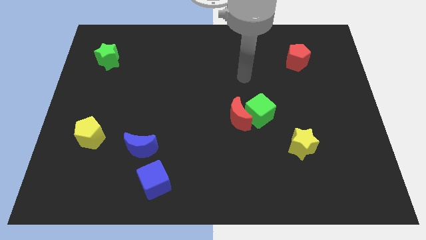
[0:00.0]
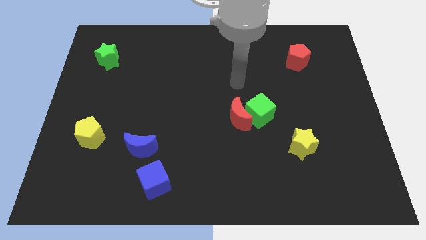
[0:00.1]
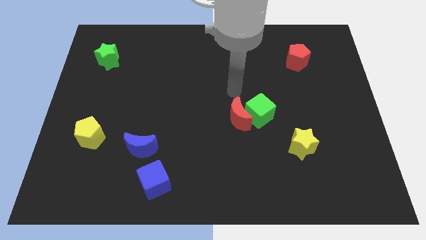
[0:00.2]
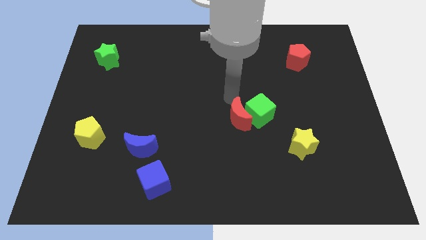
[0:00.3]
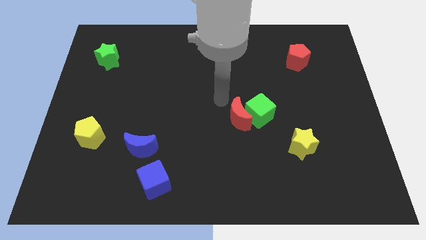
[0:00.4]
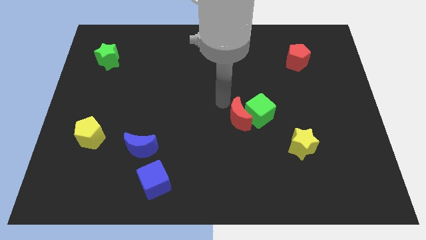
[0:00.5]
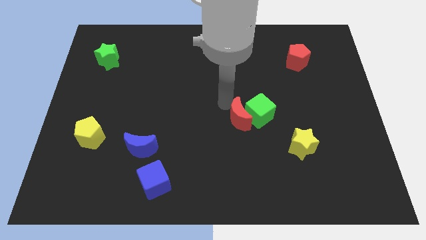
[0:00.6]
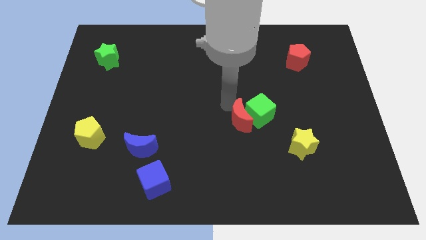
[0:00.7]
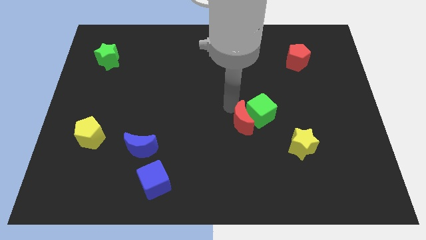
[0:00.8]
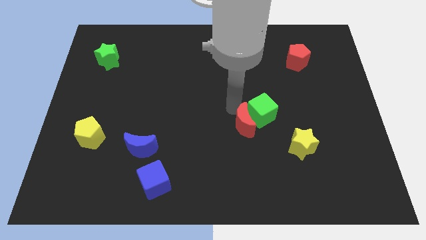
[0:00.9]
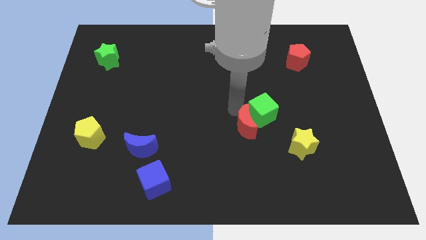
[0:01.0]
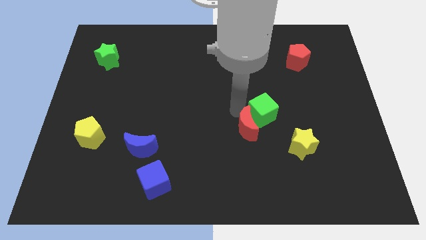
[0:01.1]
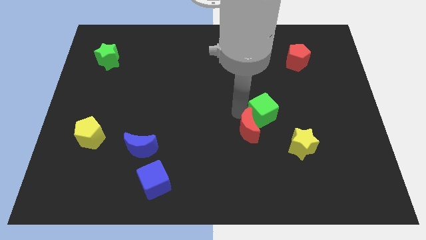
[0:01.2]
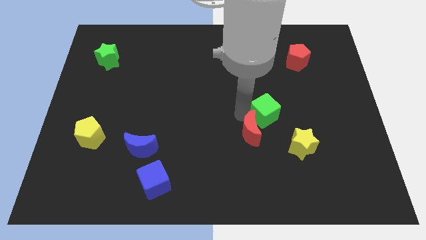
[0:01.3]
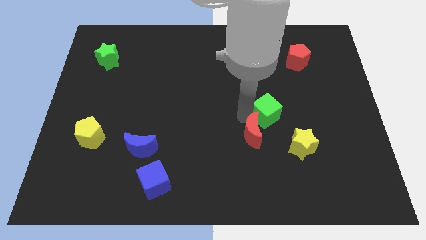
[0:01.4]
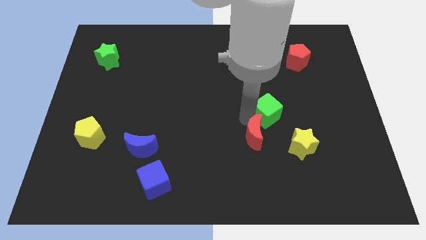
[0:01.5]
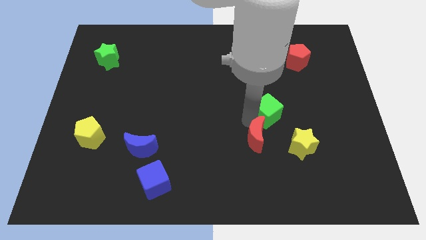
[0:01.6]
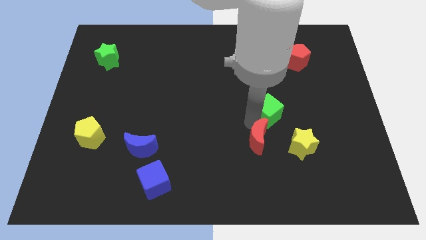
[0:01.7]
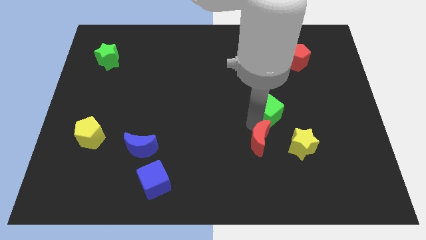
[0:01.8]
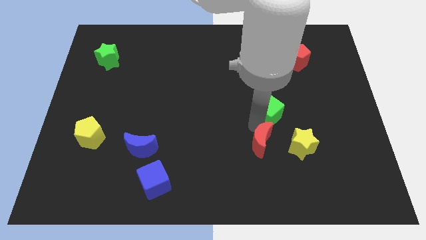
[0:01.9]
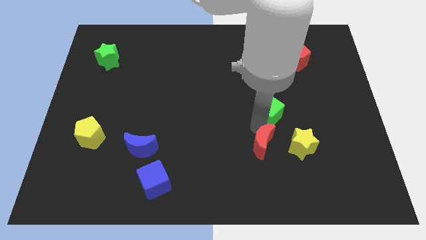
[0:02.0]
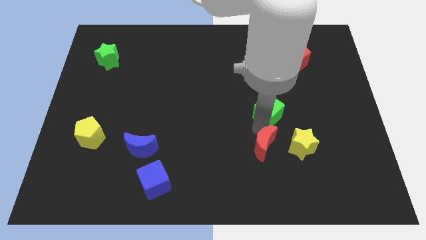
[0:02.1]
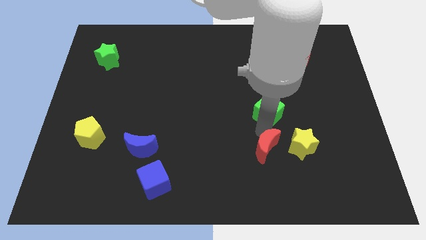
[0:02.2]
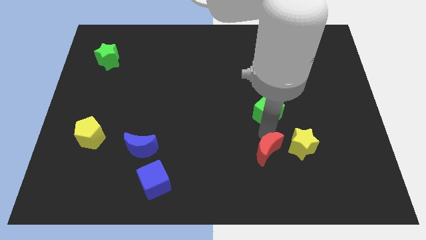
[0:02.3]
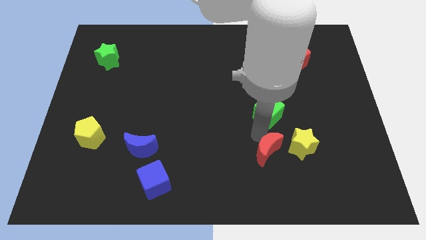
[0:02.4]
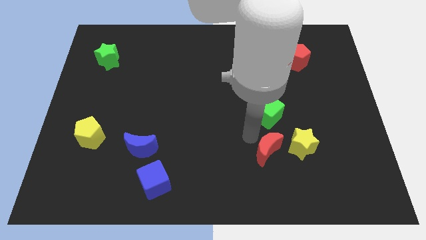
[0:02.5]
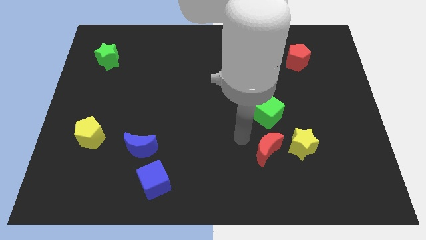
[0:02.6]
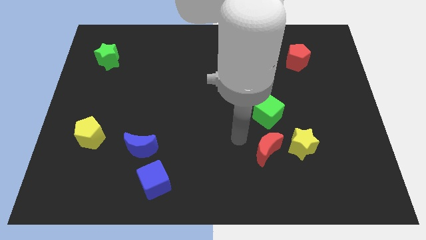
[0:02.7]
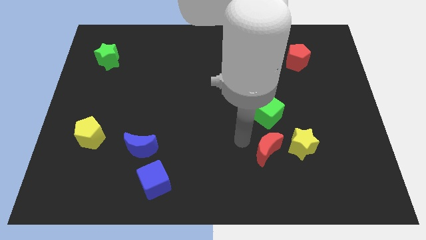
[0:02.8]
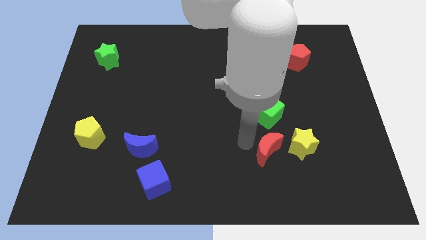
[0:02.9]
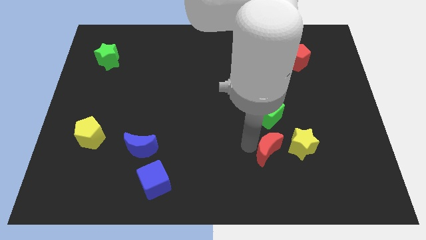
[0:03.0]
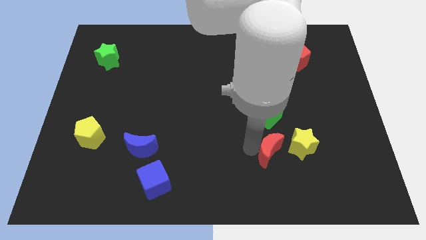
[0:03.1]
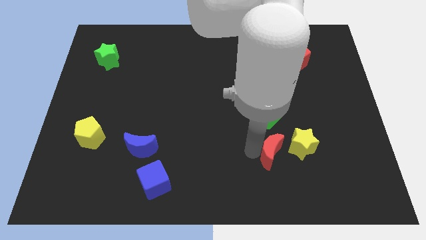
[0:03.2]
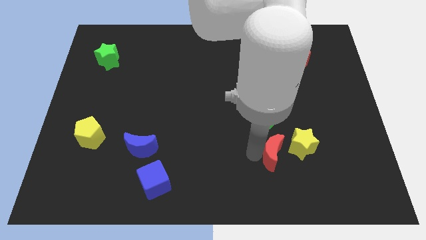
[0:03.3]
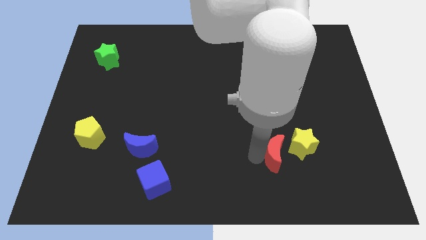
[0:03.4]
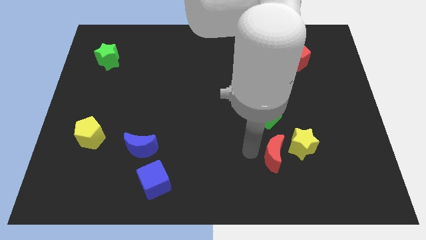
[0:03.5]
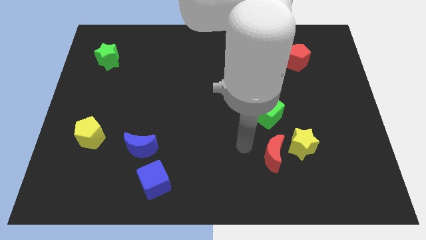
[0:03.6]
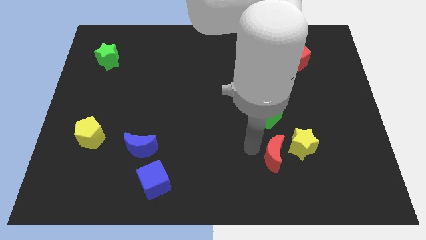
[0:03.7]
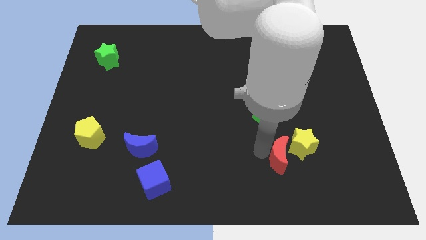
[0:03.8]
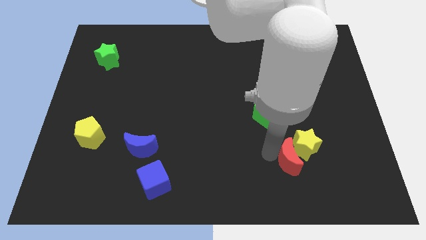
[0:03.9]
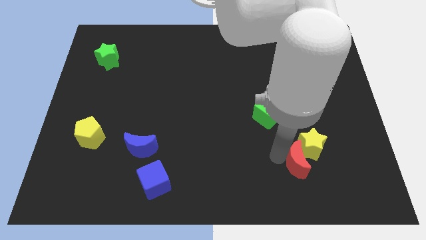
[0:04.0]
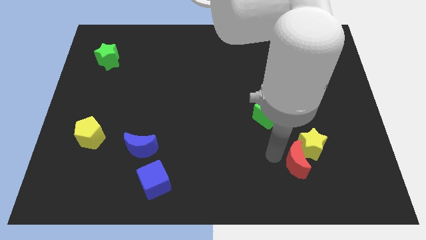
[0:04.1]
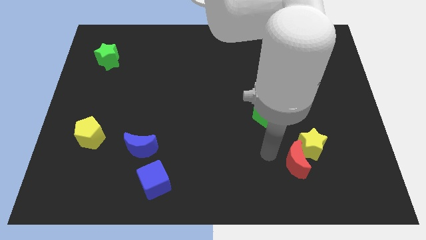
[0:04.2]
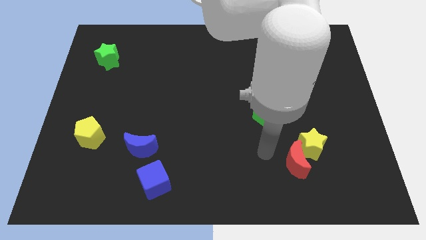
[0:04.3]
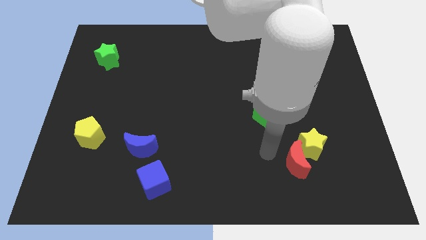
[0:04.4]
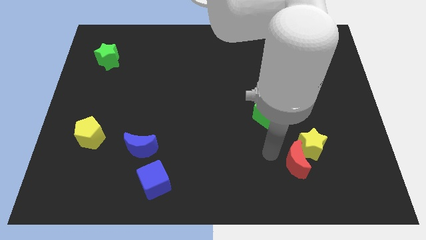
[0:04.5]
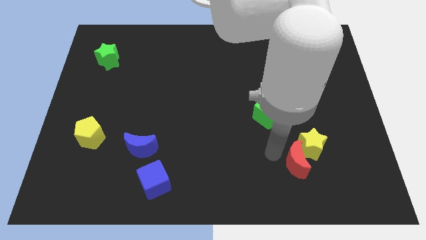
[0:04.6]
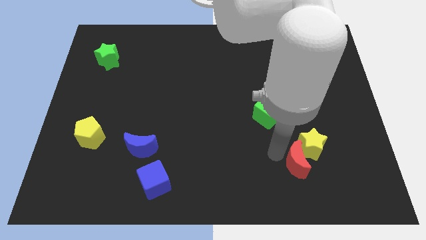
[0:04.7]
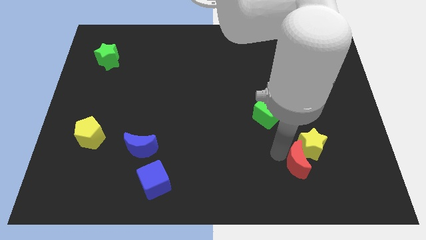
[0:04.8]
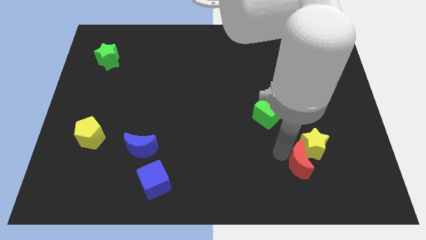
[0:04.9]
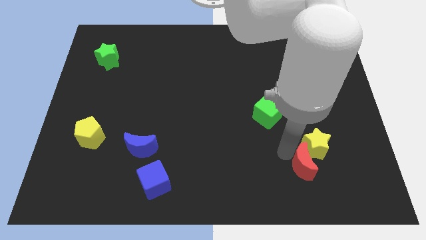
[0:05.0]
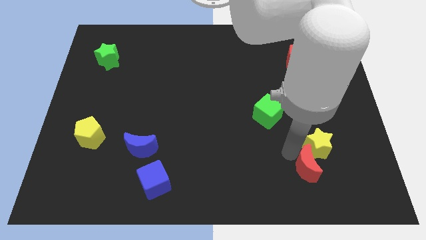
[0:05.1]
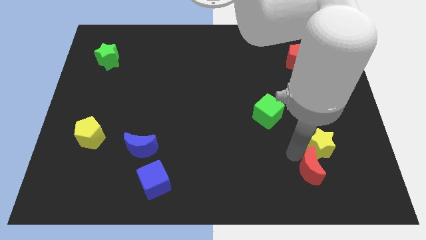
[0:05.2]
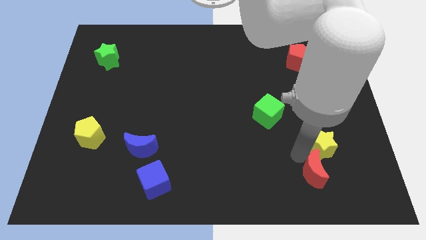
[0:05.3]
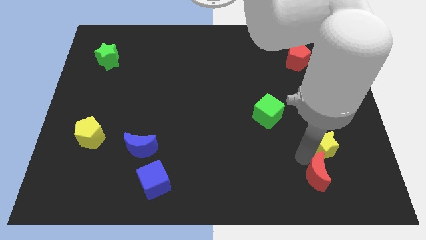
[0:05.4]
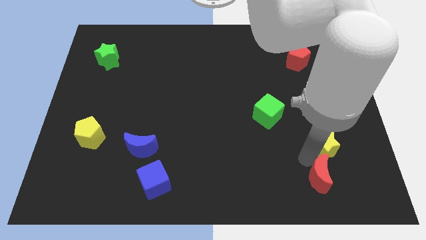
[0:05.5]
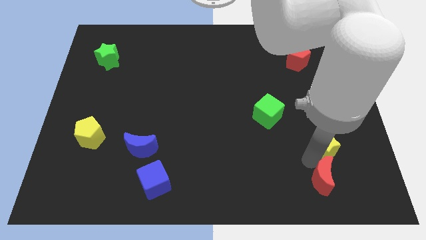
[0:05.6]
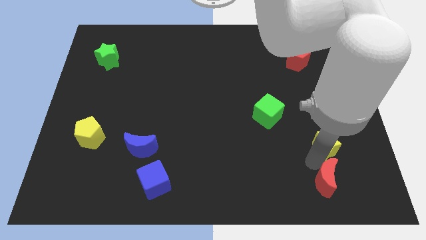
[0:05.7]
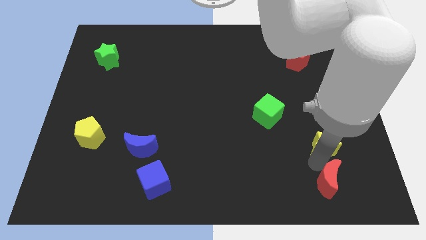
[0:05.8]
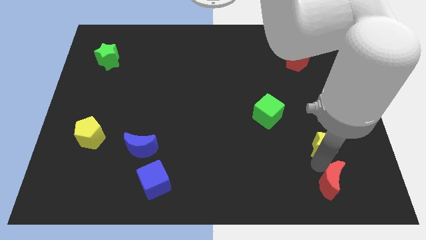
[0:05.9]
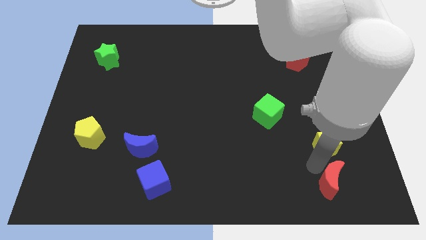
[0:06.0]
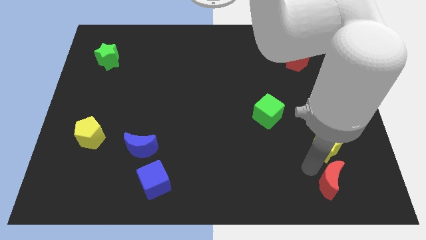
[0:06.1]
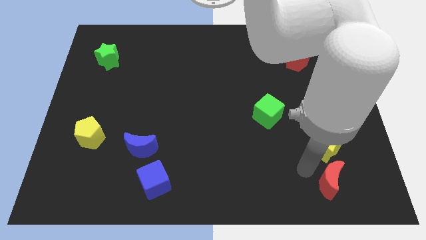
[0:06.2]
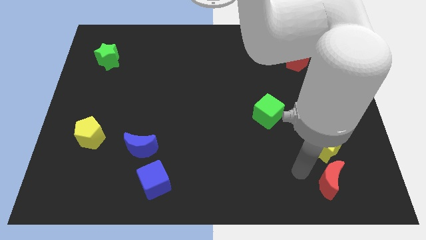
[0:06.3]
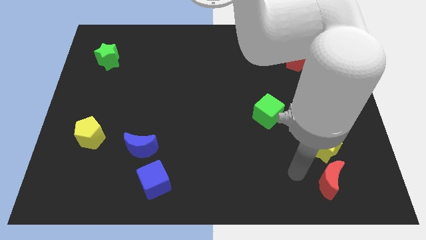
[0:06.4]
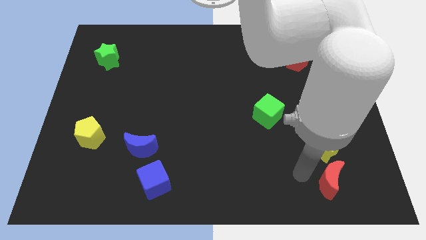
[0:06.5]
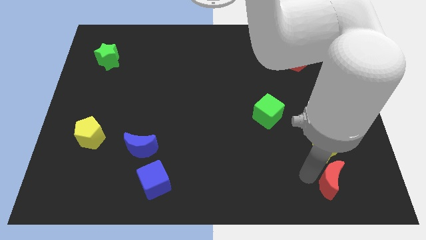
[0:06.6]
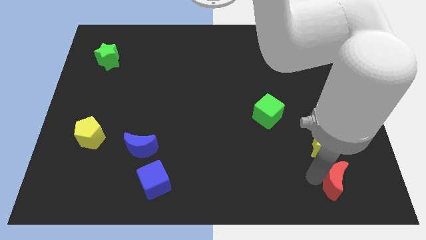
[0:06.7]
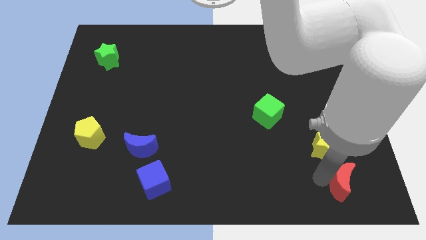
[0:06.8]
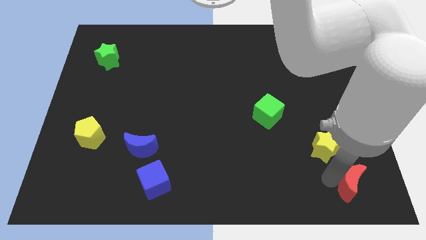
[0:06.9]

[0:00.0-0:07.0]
put the red moon to the bottom right corner
